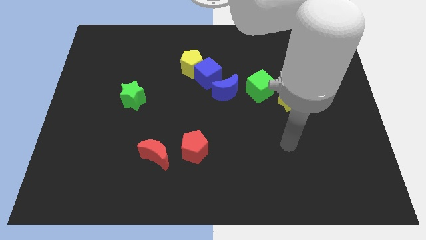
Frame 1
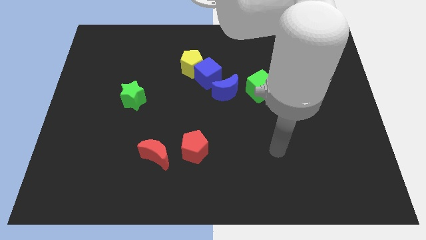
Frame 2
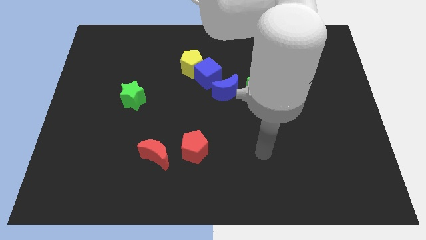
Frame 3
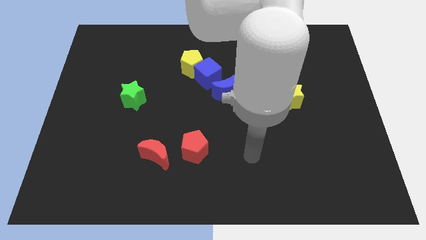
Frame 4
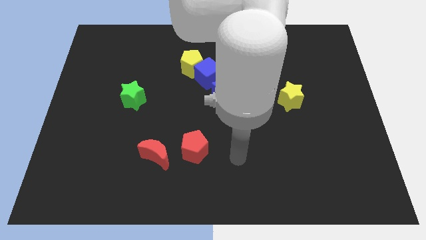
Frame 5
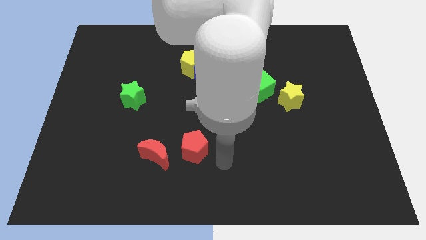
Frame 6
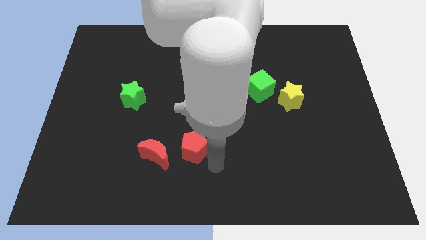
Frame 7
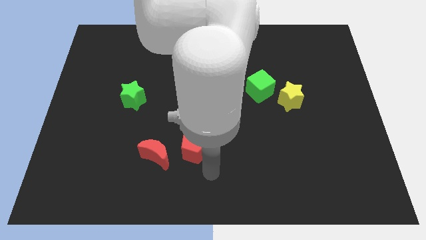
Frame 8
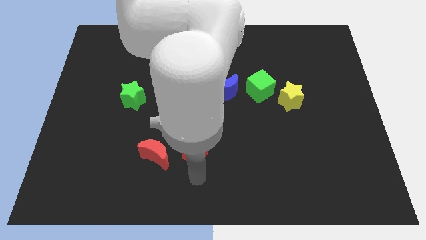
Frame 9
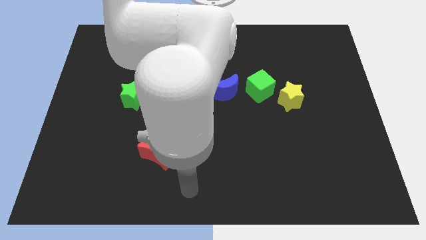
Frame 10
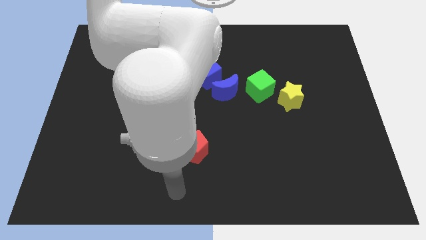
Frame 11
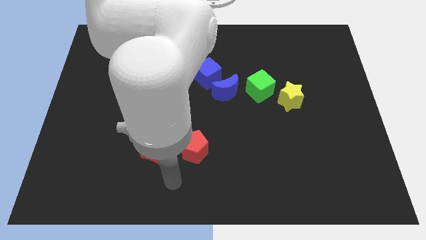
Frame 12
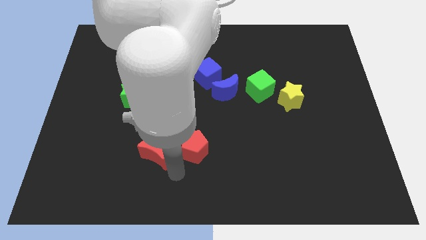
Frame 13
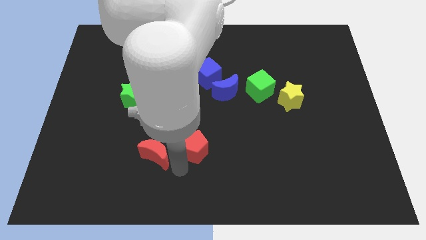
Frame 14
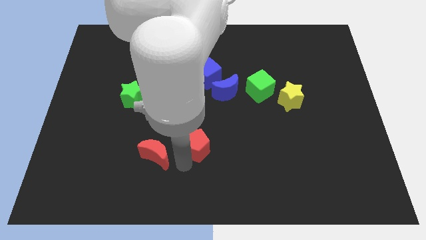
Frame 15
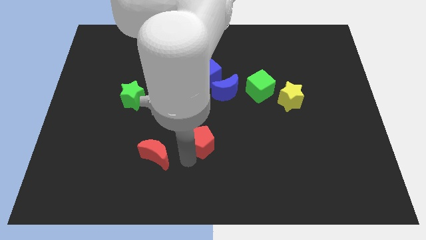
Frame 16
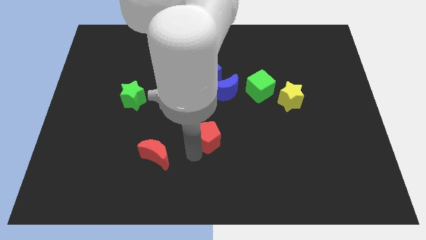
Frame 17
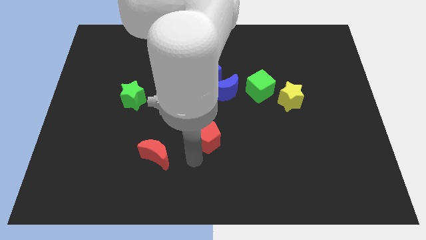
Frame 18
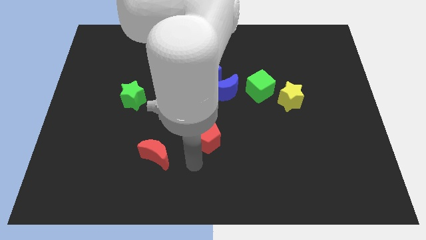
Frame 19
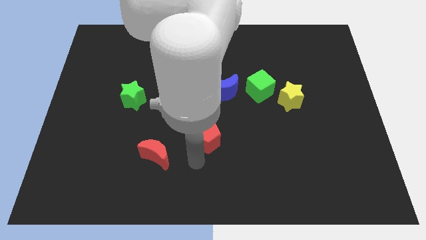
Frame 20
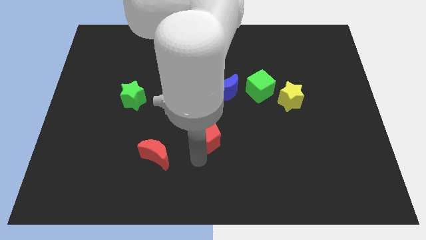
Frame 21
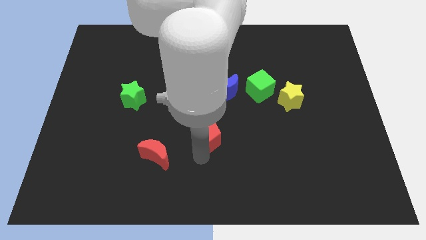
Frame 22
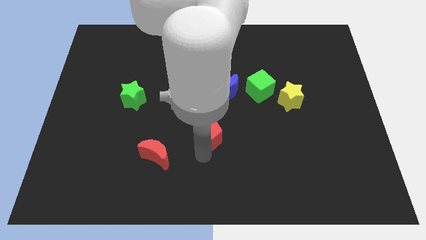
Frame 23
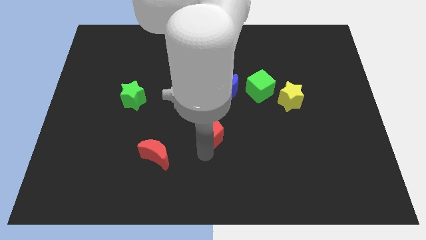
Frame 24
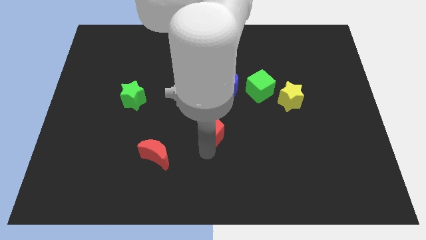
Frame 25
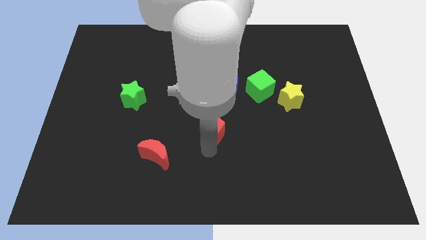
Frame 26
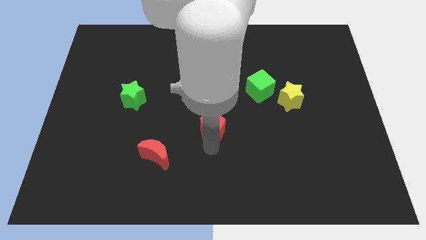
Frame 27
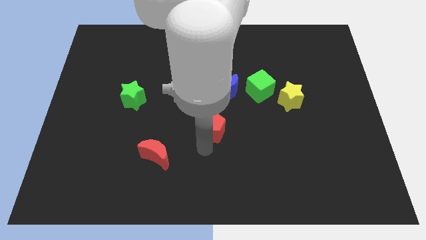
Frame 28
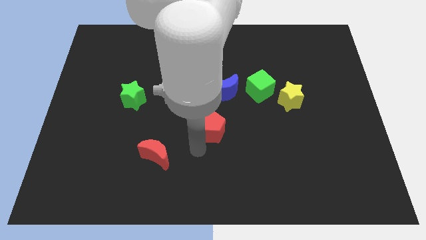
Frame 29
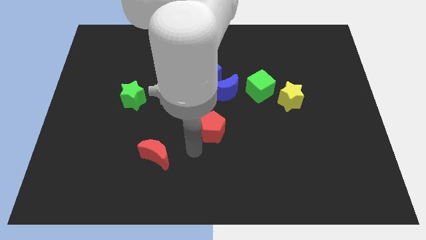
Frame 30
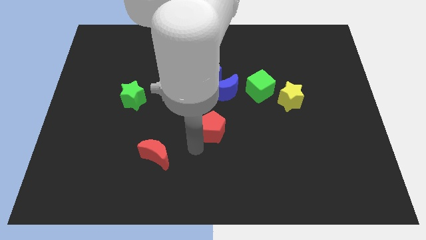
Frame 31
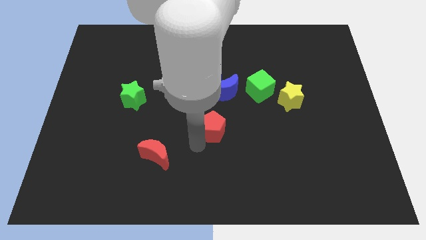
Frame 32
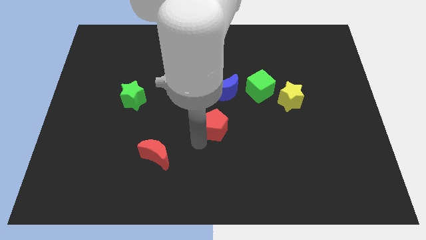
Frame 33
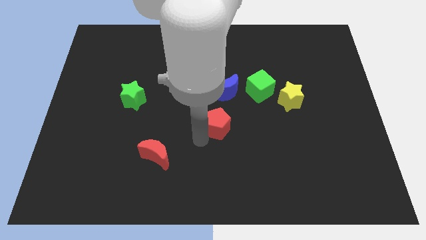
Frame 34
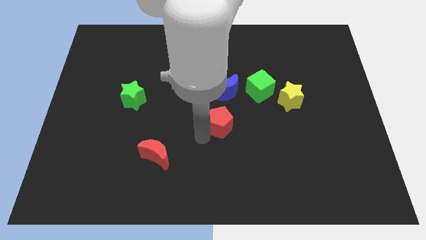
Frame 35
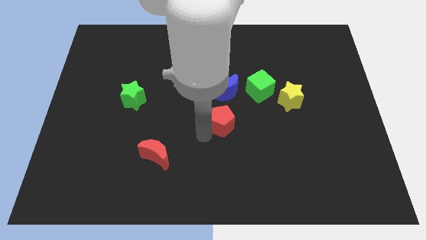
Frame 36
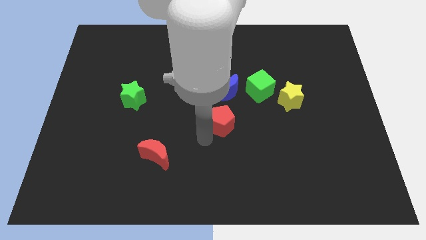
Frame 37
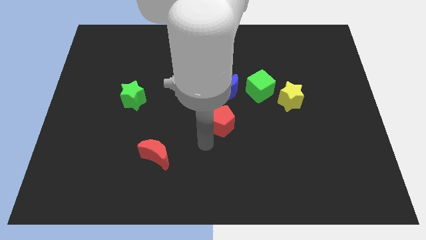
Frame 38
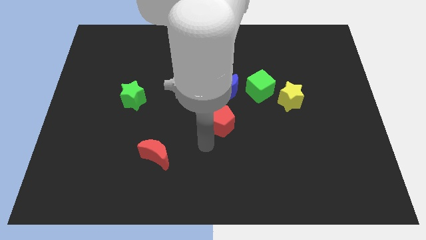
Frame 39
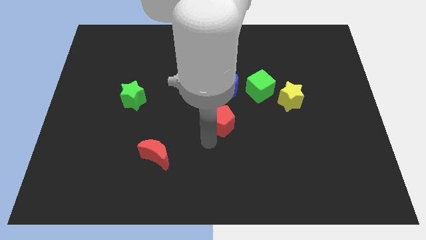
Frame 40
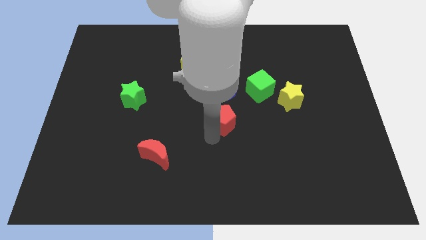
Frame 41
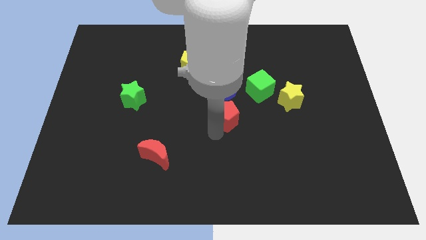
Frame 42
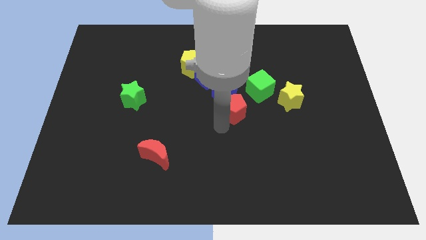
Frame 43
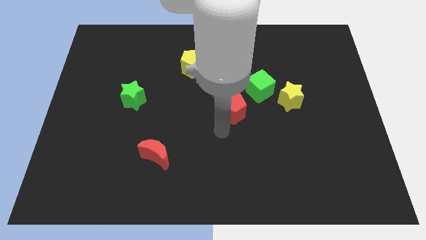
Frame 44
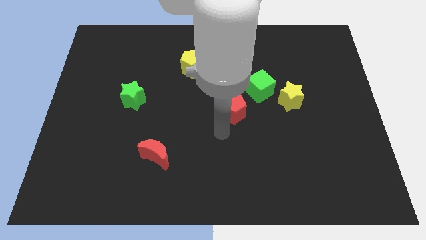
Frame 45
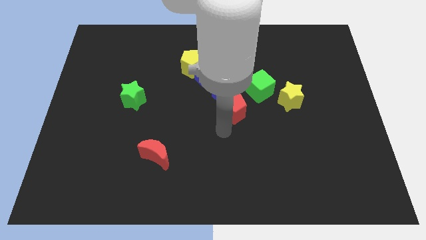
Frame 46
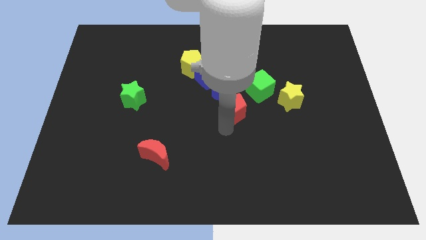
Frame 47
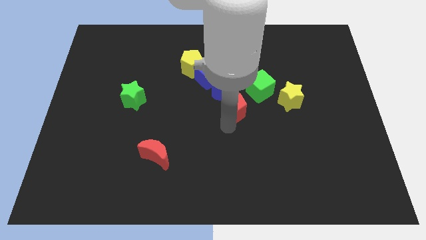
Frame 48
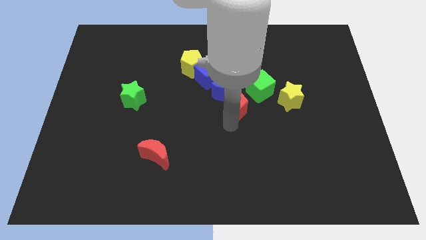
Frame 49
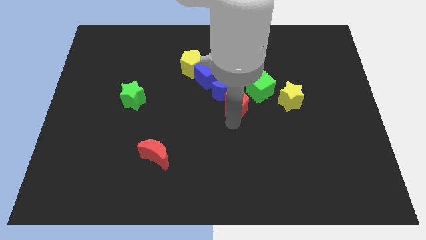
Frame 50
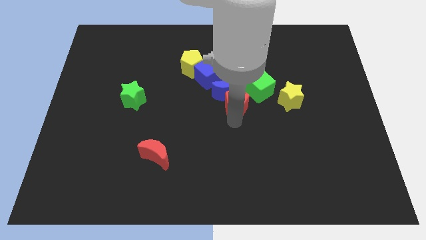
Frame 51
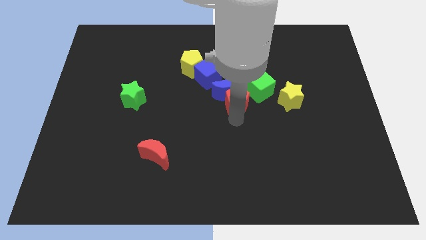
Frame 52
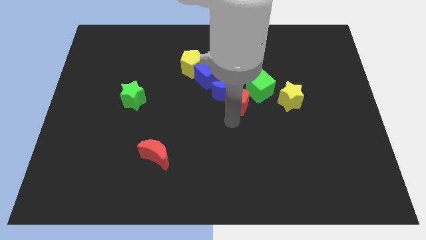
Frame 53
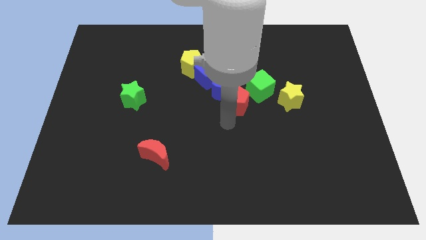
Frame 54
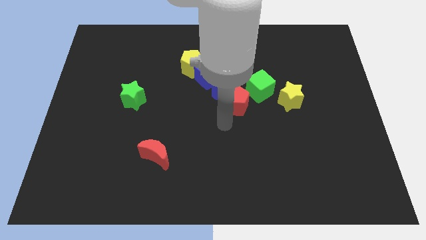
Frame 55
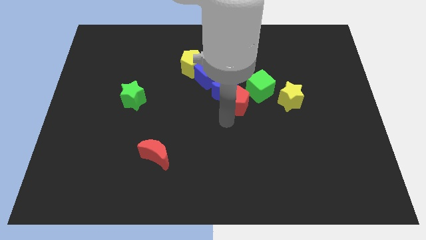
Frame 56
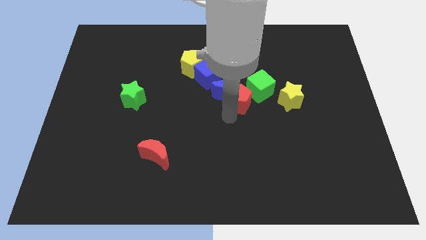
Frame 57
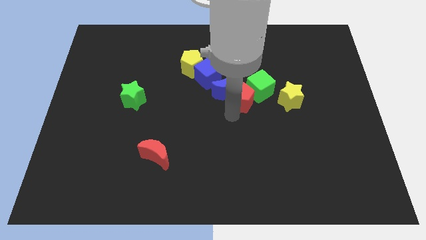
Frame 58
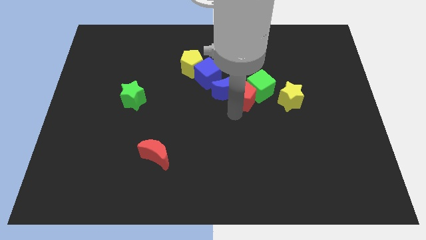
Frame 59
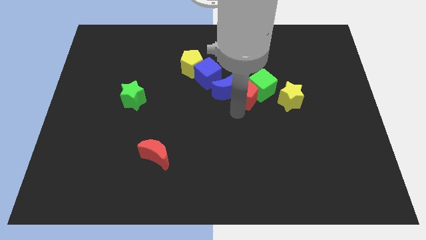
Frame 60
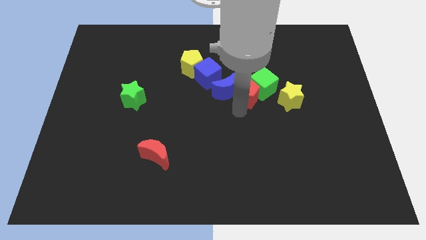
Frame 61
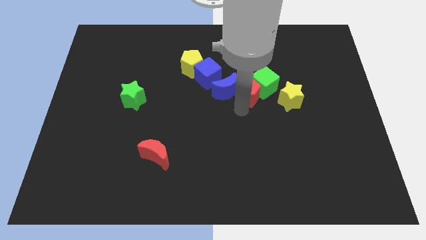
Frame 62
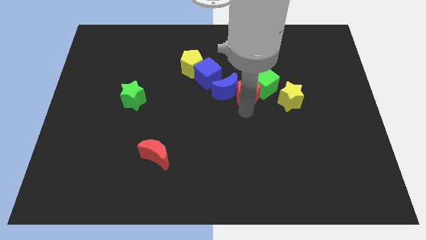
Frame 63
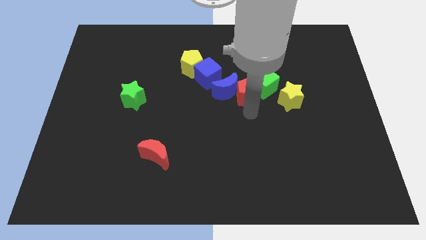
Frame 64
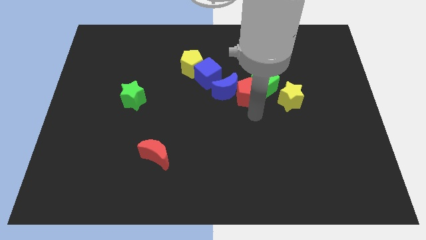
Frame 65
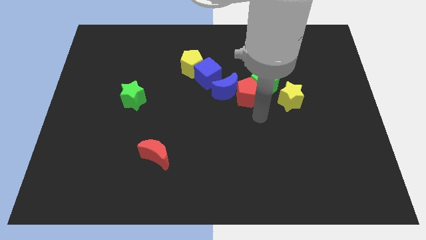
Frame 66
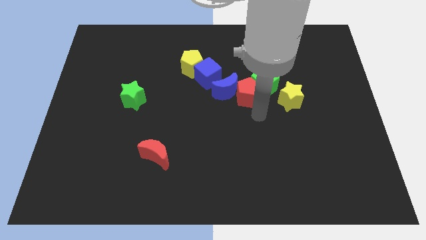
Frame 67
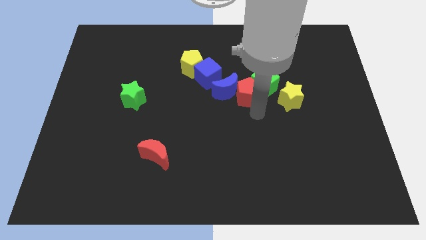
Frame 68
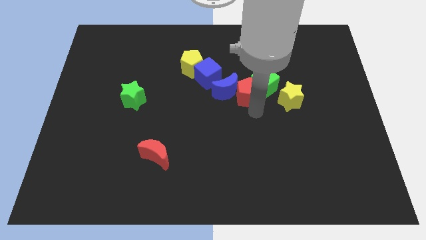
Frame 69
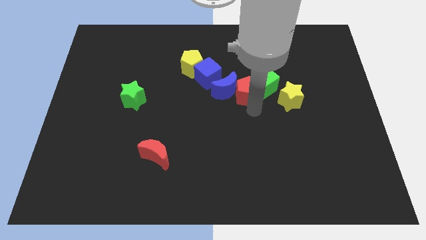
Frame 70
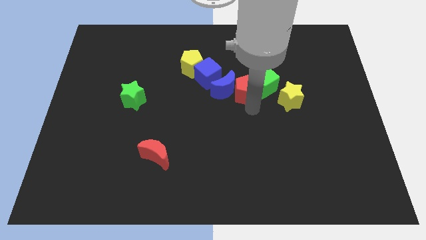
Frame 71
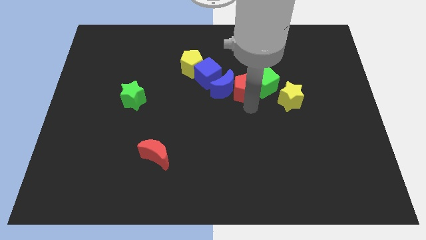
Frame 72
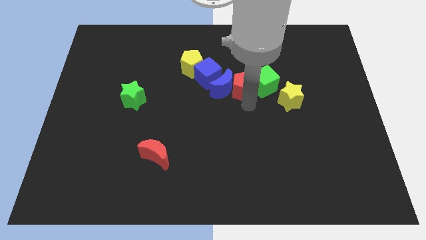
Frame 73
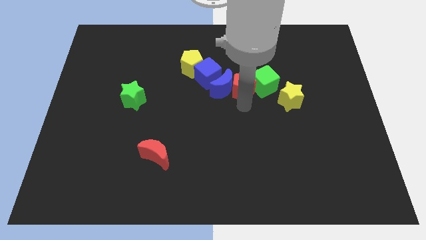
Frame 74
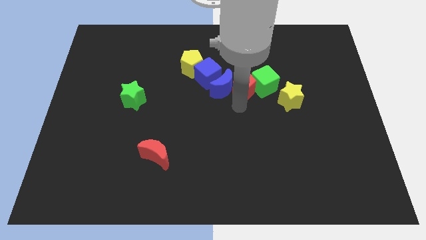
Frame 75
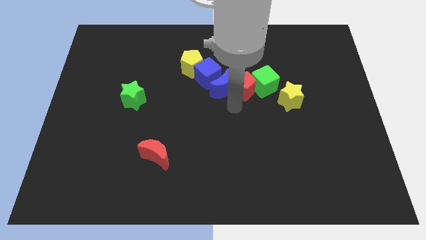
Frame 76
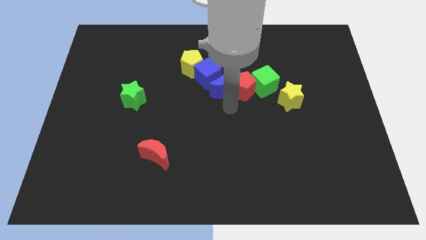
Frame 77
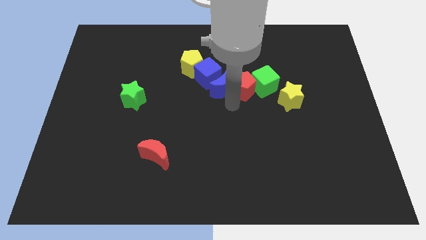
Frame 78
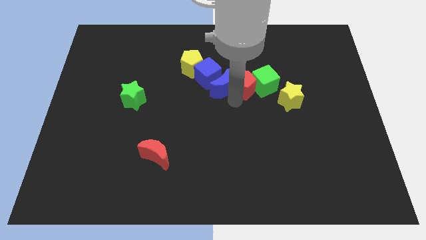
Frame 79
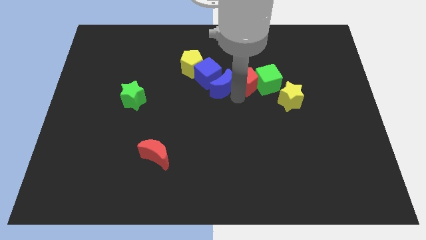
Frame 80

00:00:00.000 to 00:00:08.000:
put the red pentagon to the top left side of the yellow star
